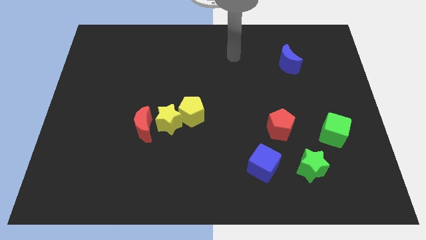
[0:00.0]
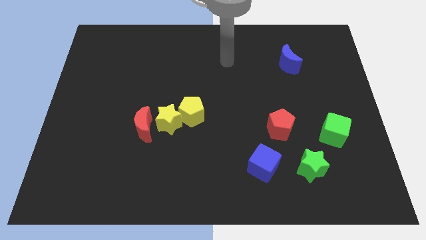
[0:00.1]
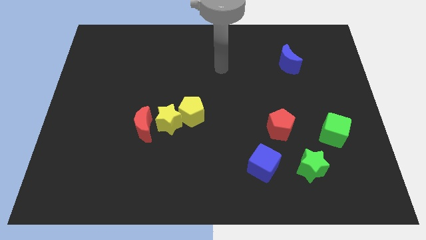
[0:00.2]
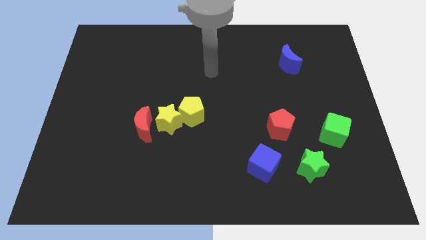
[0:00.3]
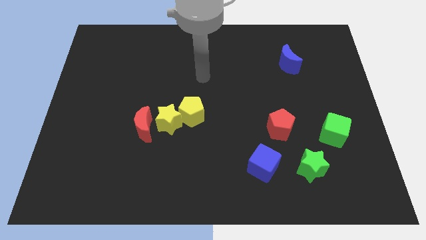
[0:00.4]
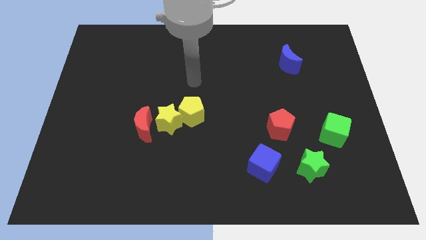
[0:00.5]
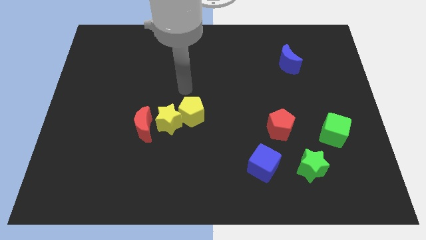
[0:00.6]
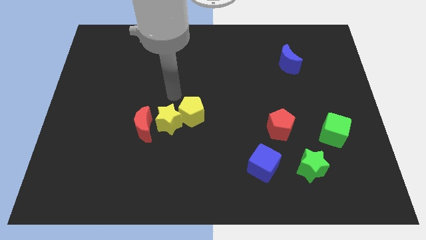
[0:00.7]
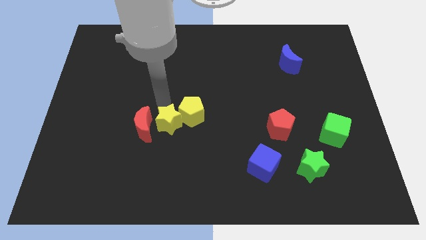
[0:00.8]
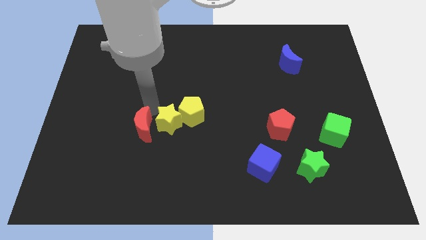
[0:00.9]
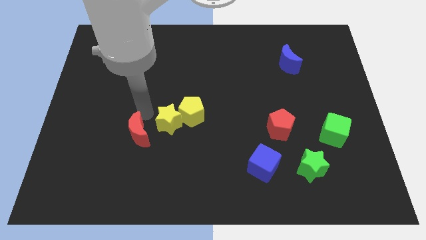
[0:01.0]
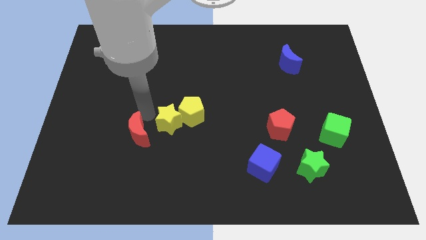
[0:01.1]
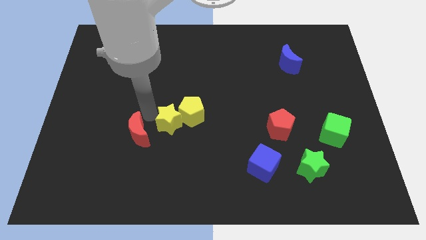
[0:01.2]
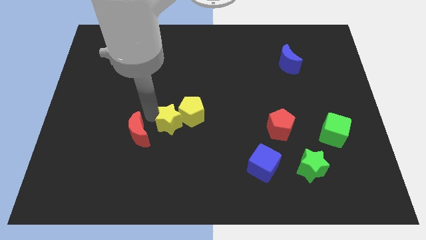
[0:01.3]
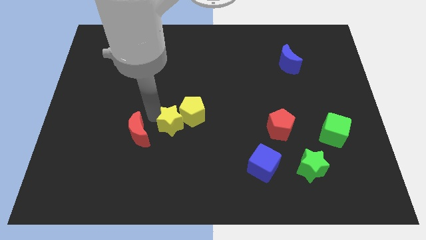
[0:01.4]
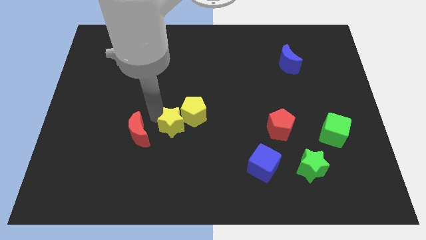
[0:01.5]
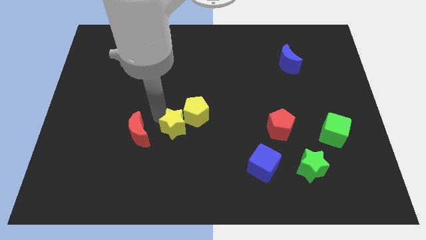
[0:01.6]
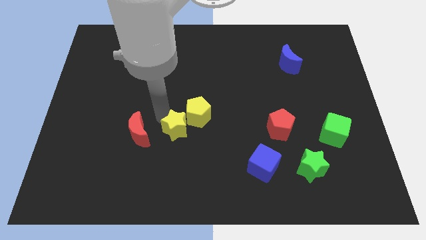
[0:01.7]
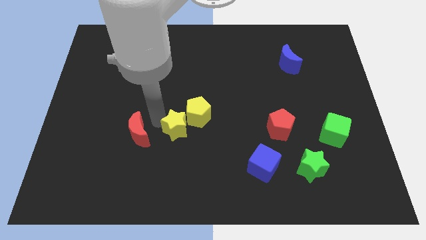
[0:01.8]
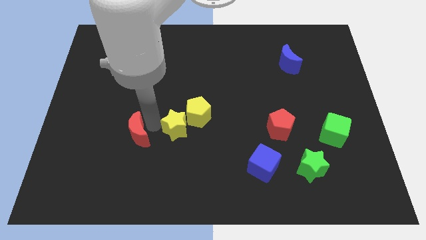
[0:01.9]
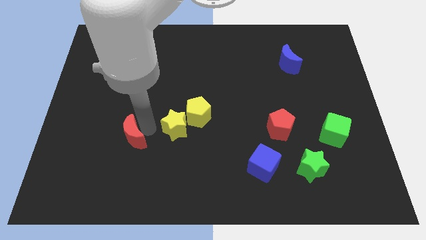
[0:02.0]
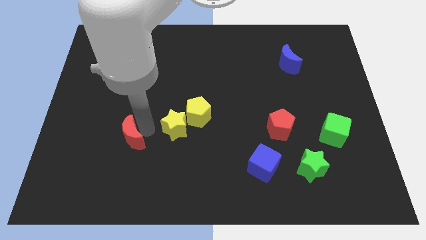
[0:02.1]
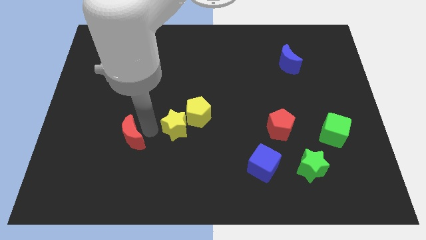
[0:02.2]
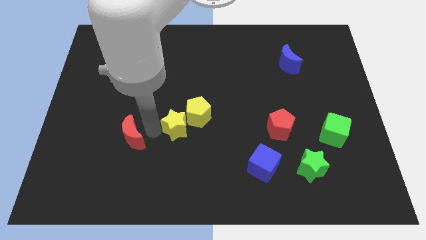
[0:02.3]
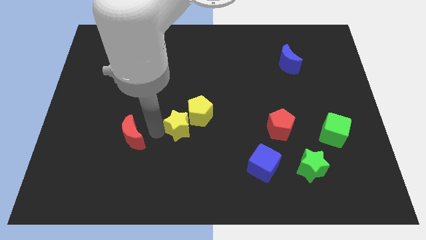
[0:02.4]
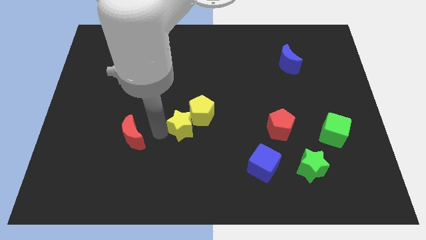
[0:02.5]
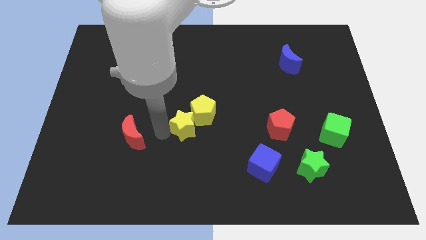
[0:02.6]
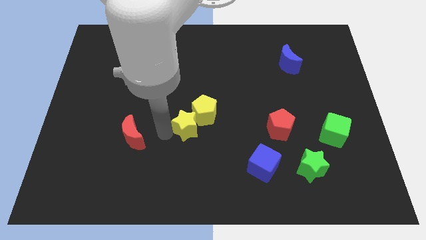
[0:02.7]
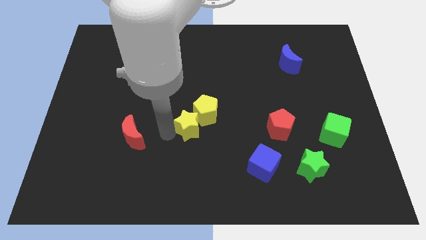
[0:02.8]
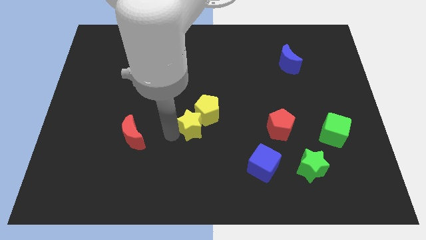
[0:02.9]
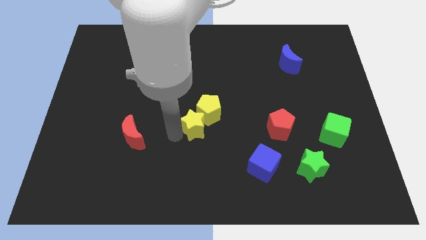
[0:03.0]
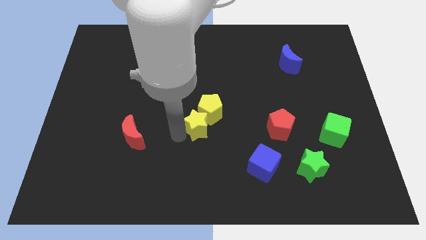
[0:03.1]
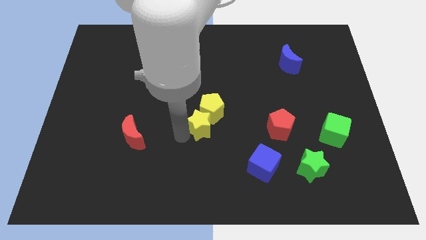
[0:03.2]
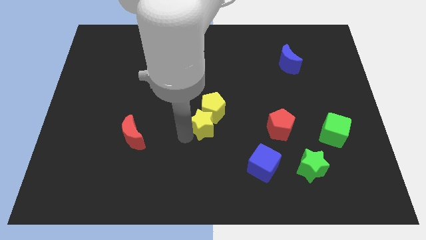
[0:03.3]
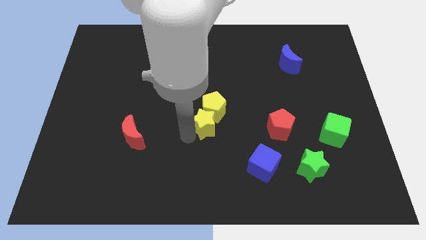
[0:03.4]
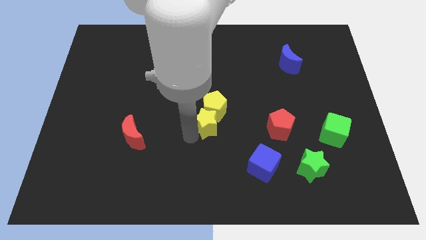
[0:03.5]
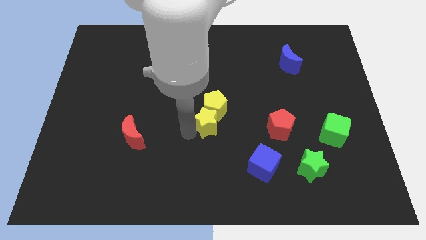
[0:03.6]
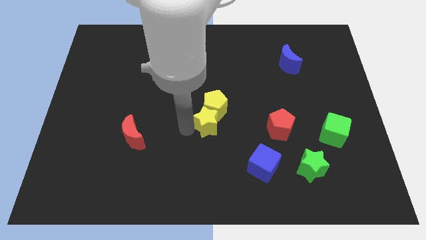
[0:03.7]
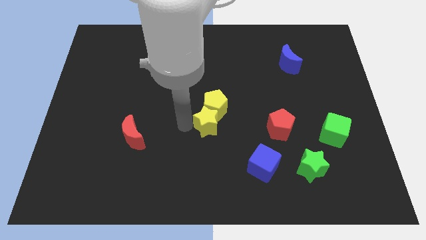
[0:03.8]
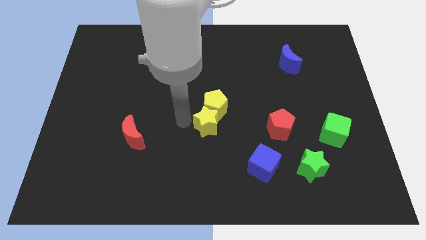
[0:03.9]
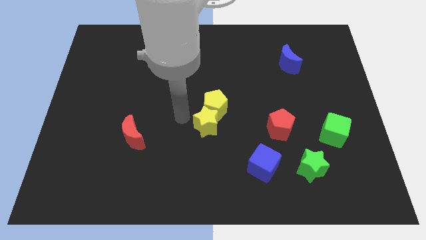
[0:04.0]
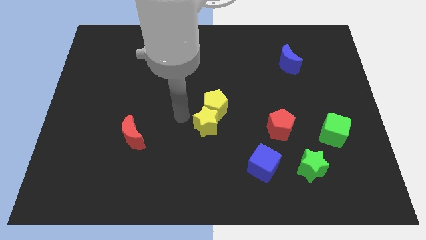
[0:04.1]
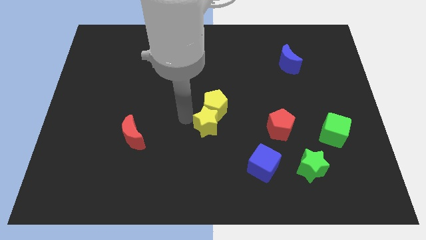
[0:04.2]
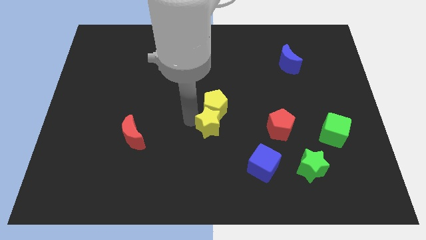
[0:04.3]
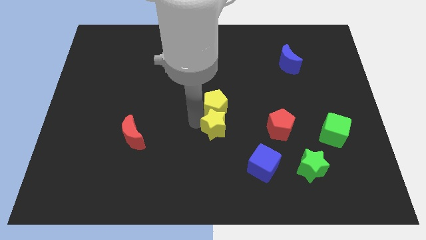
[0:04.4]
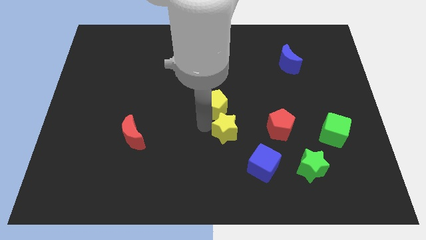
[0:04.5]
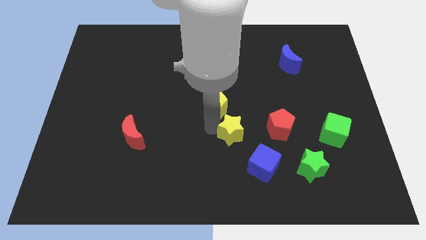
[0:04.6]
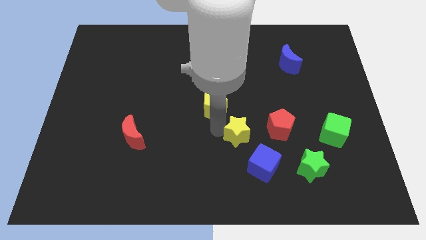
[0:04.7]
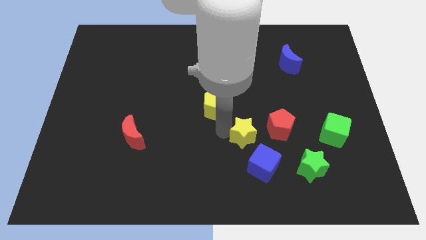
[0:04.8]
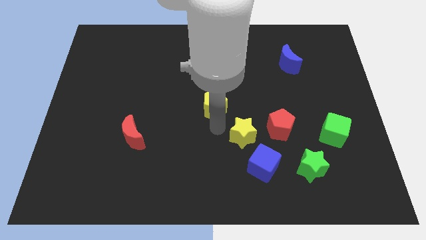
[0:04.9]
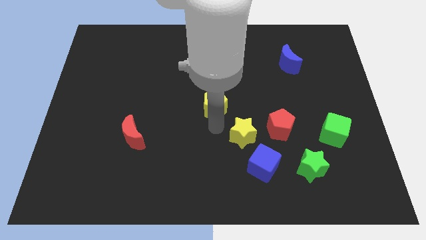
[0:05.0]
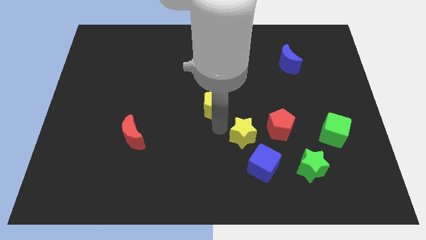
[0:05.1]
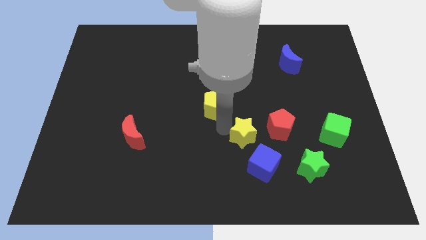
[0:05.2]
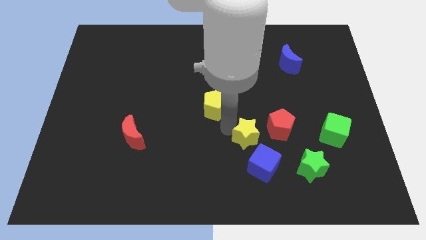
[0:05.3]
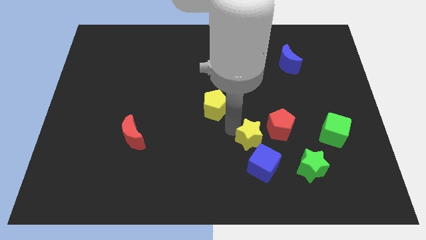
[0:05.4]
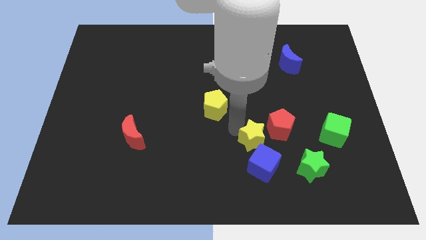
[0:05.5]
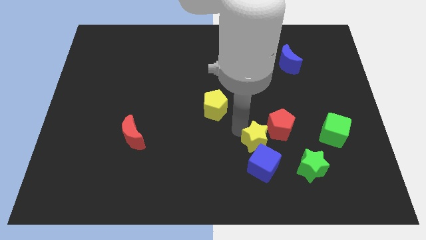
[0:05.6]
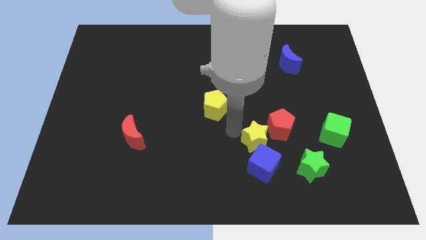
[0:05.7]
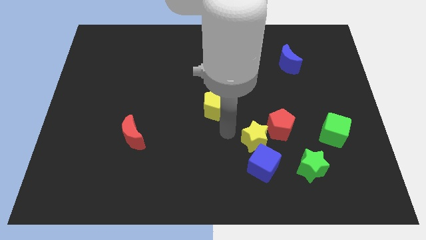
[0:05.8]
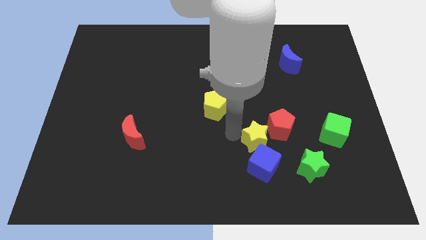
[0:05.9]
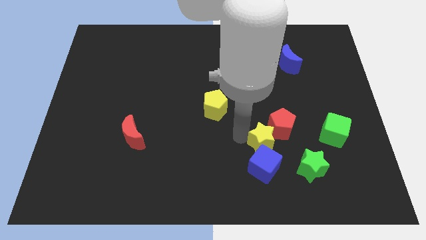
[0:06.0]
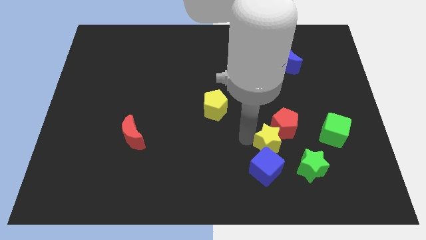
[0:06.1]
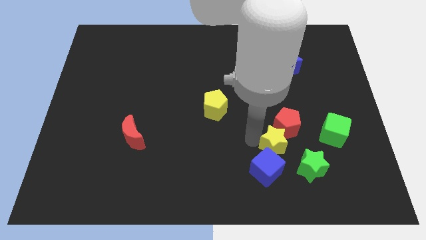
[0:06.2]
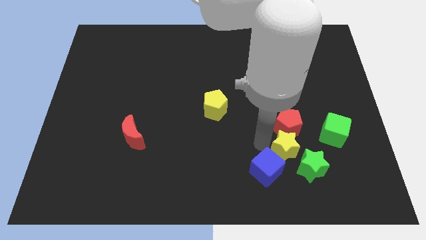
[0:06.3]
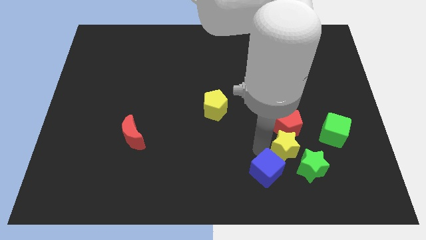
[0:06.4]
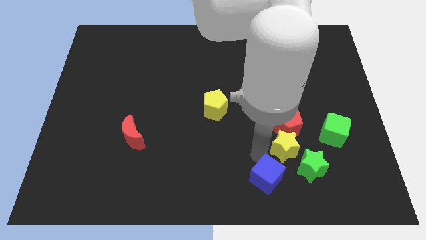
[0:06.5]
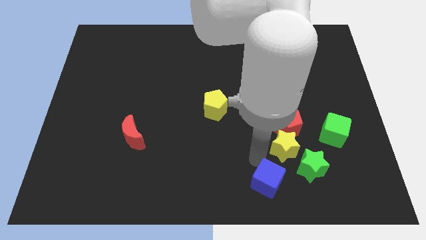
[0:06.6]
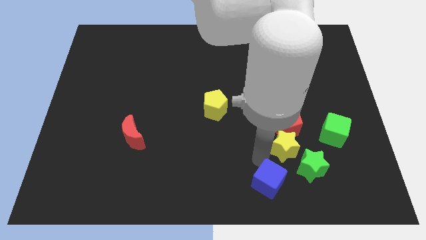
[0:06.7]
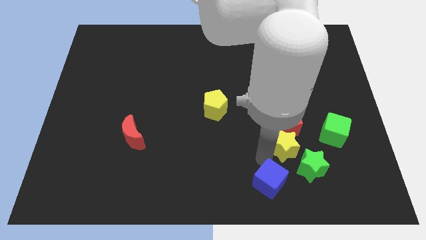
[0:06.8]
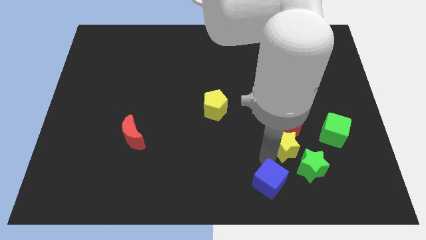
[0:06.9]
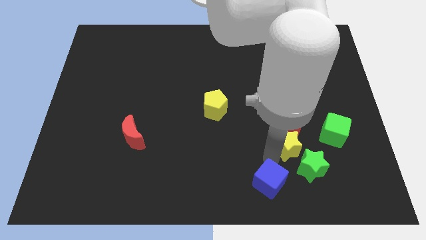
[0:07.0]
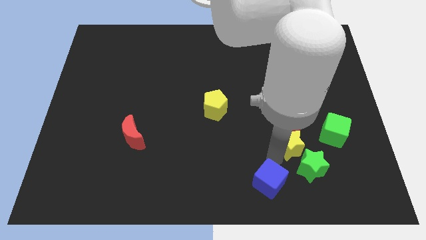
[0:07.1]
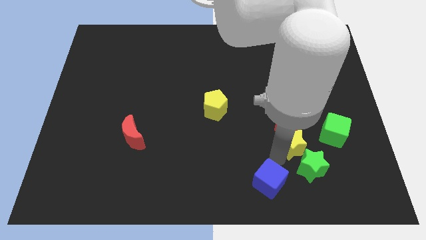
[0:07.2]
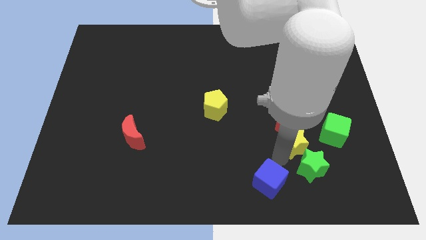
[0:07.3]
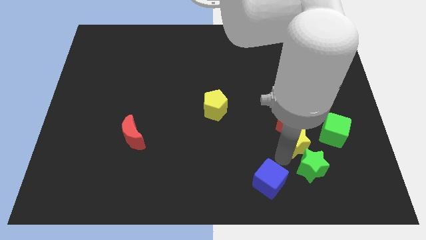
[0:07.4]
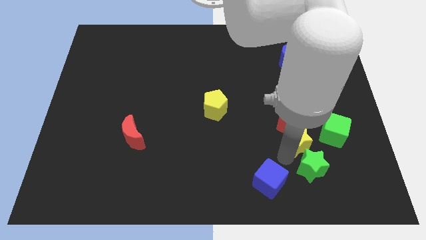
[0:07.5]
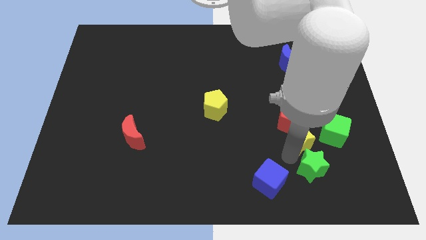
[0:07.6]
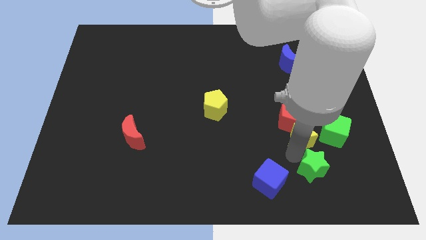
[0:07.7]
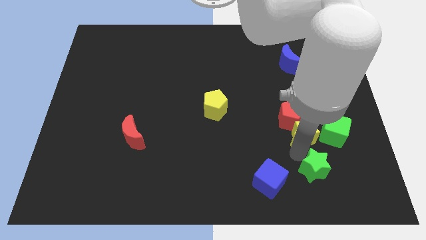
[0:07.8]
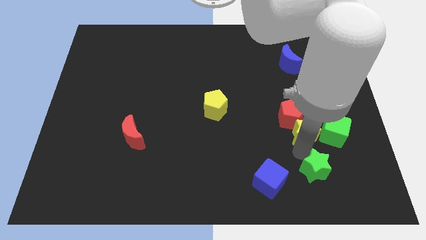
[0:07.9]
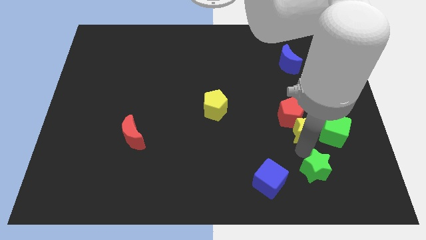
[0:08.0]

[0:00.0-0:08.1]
put the yellow star towards the green cube
